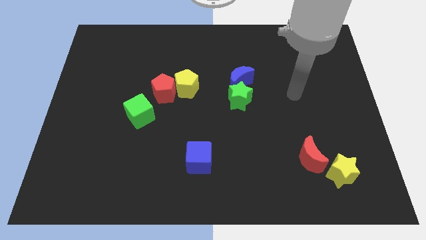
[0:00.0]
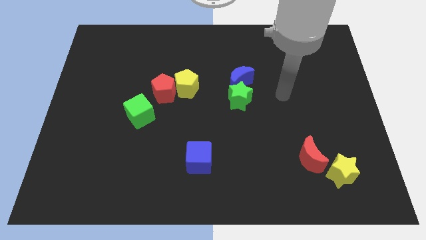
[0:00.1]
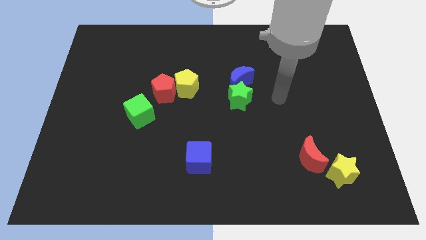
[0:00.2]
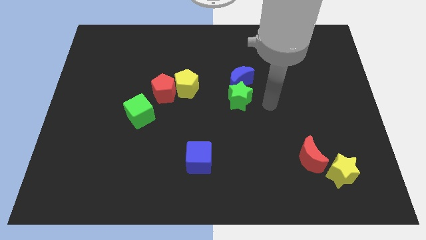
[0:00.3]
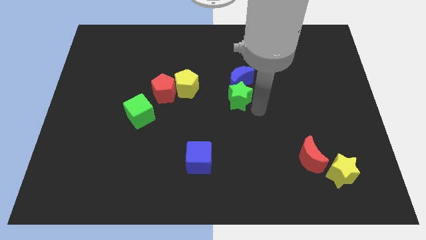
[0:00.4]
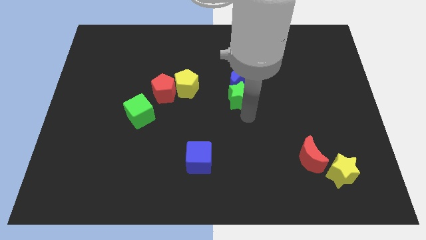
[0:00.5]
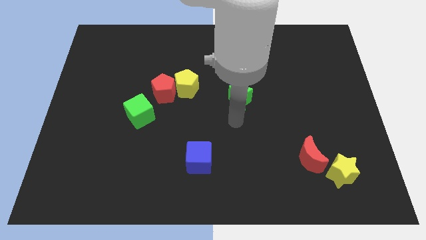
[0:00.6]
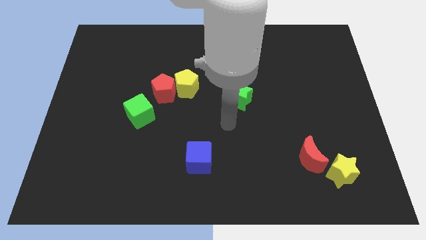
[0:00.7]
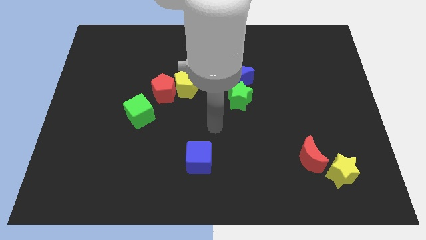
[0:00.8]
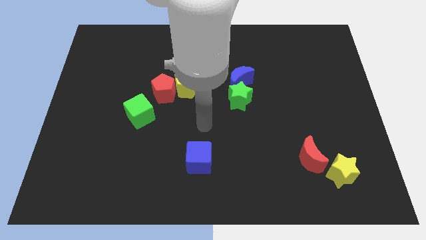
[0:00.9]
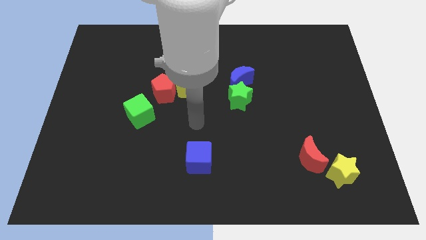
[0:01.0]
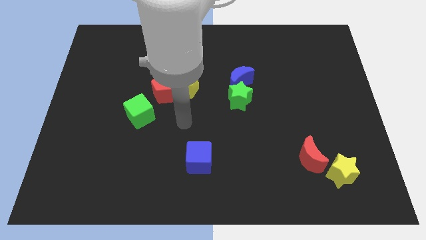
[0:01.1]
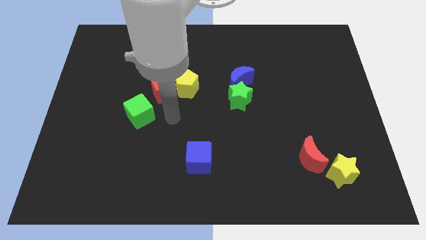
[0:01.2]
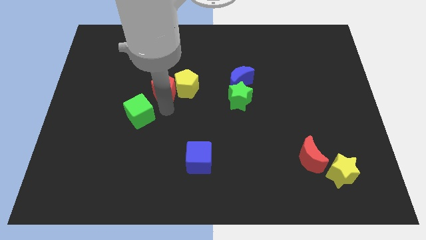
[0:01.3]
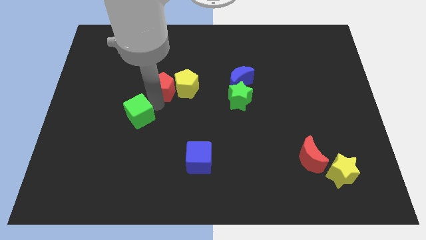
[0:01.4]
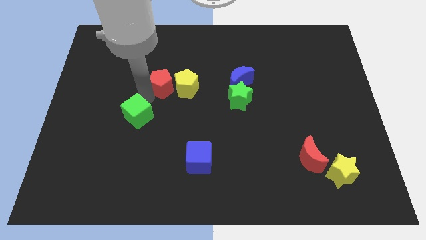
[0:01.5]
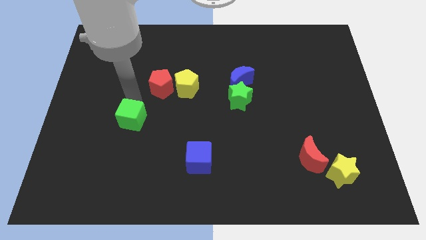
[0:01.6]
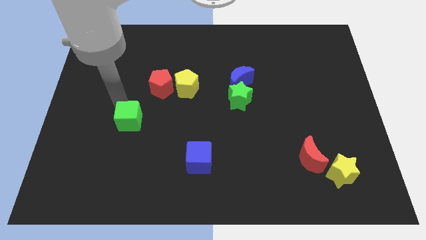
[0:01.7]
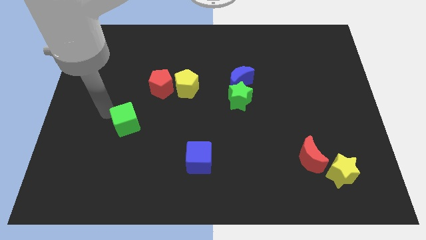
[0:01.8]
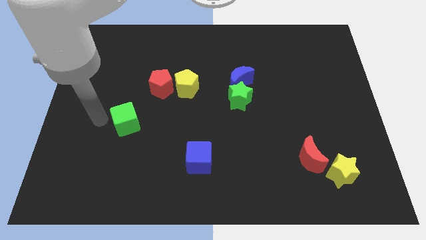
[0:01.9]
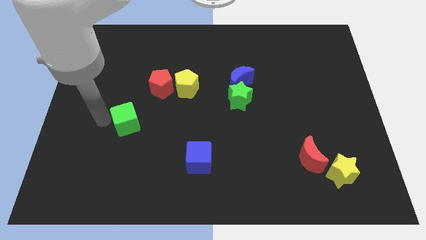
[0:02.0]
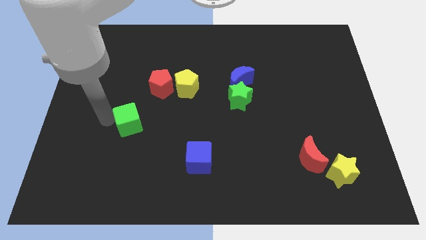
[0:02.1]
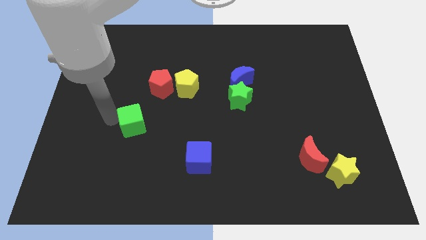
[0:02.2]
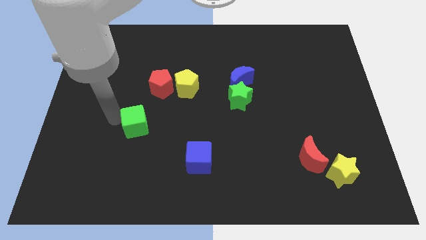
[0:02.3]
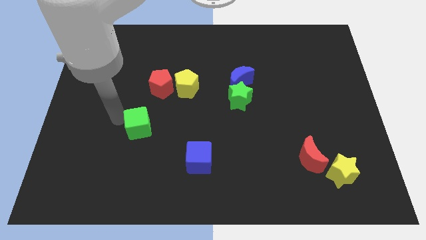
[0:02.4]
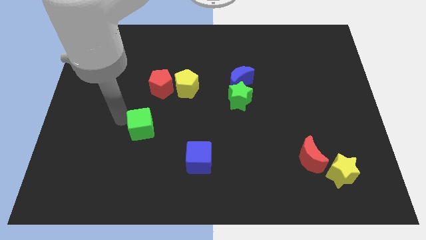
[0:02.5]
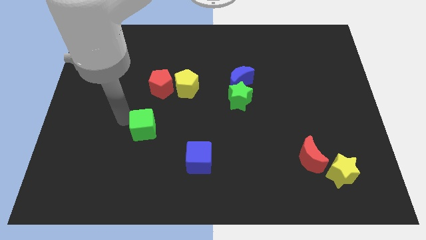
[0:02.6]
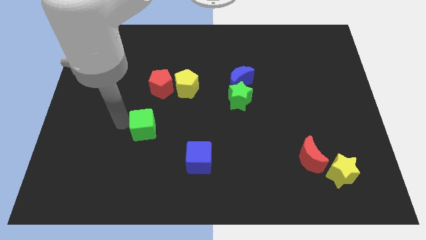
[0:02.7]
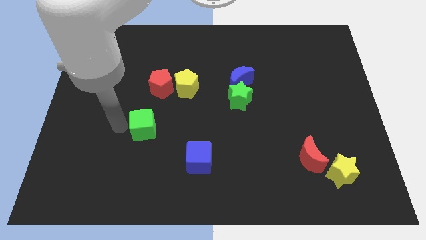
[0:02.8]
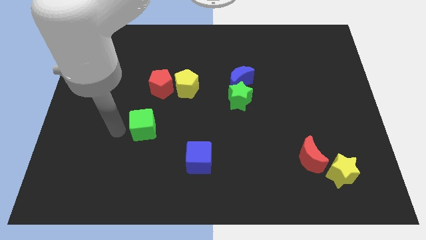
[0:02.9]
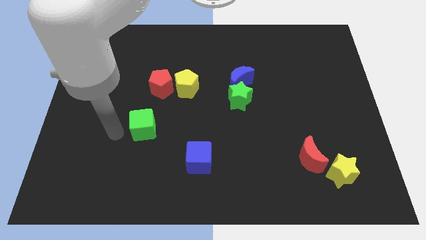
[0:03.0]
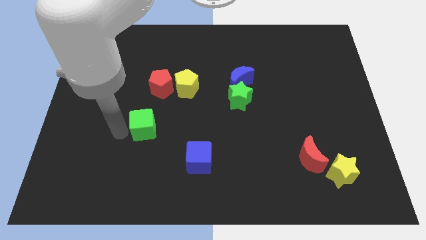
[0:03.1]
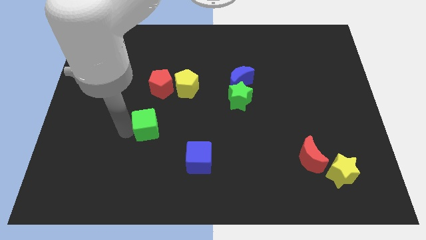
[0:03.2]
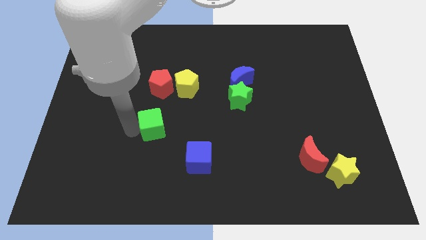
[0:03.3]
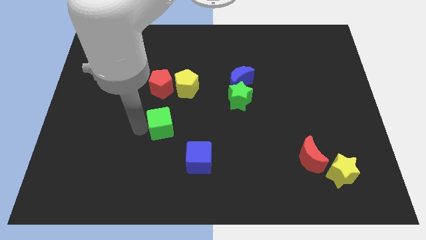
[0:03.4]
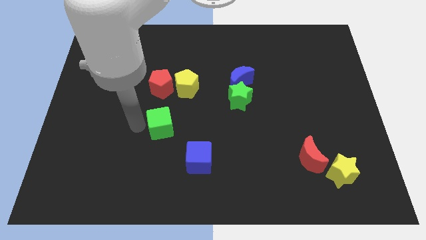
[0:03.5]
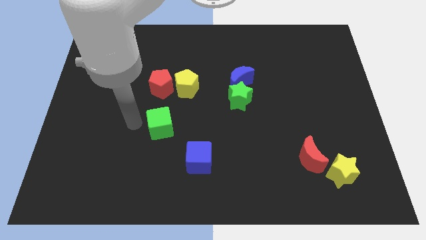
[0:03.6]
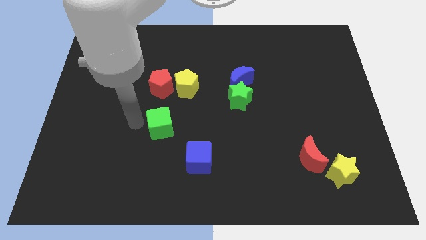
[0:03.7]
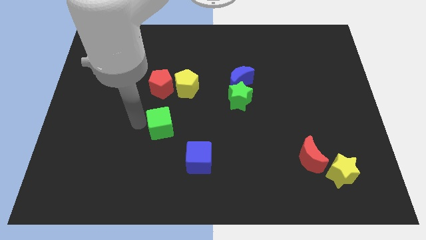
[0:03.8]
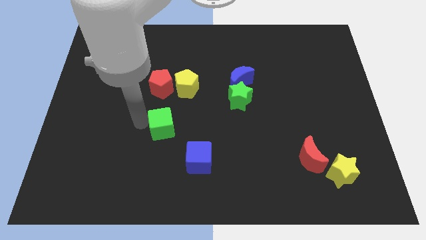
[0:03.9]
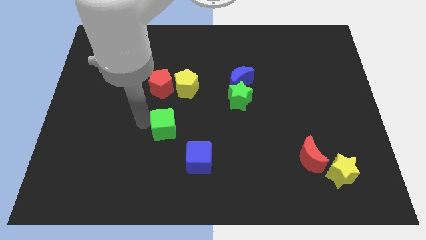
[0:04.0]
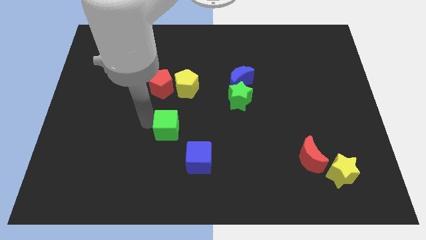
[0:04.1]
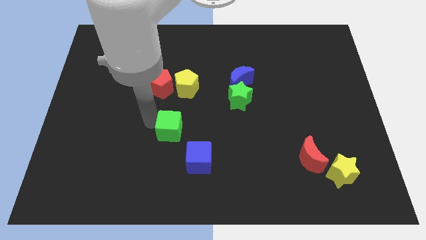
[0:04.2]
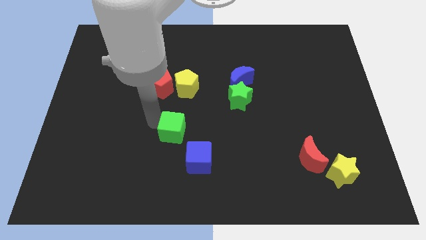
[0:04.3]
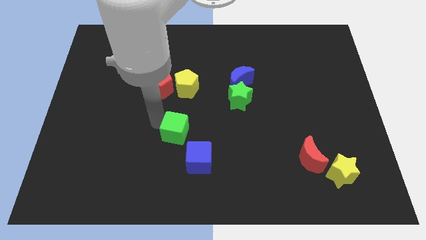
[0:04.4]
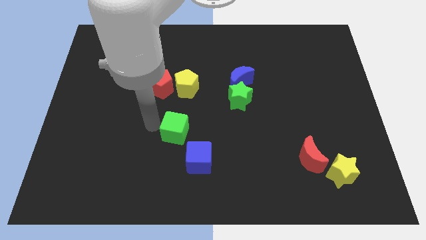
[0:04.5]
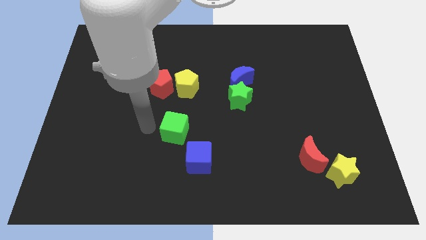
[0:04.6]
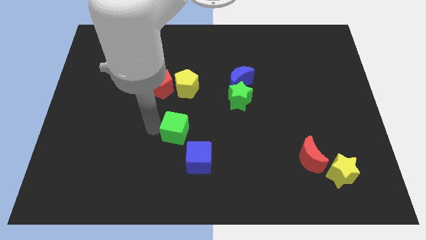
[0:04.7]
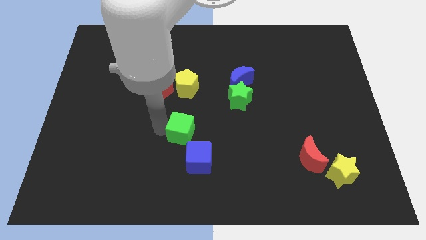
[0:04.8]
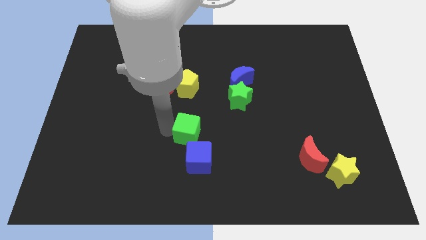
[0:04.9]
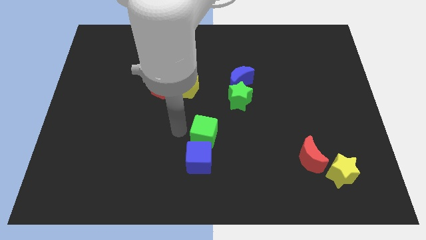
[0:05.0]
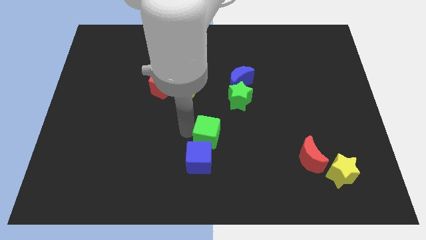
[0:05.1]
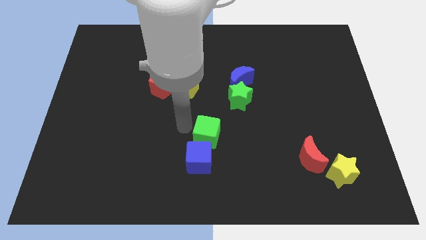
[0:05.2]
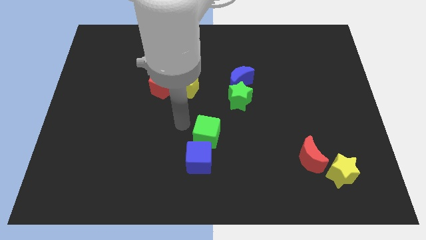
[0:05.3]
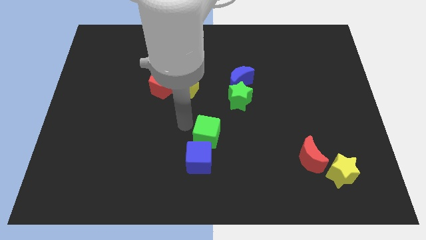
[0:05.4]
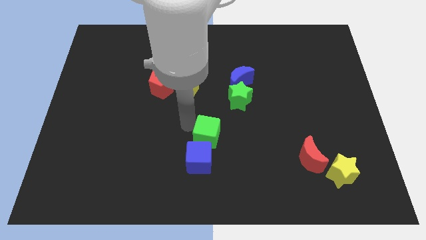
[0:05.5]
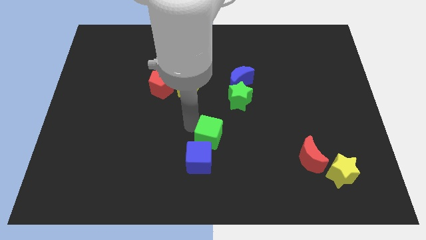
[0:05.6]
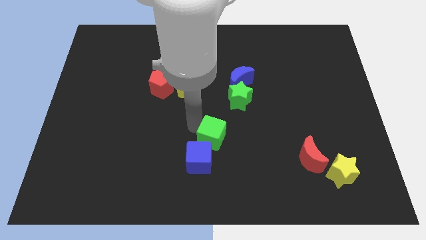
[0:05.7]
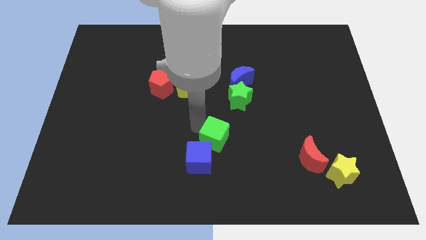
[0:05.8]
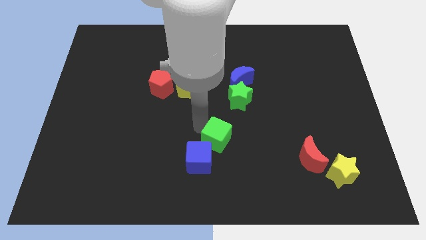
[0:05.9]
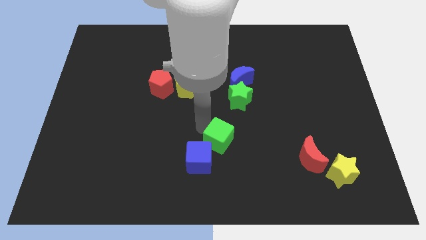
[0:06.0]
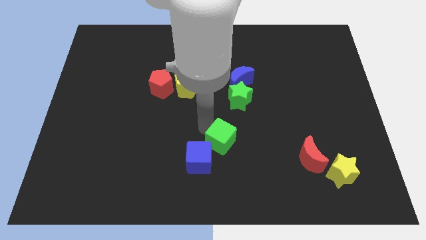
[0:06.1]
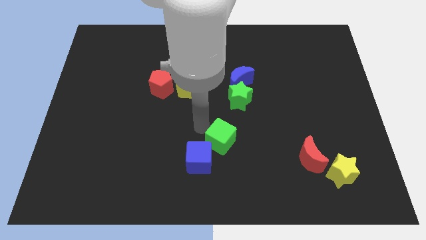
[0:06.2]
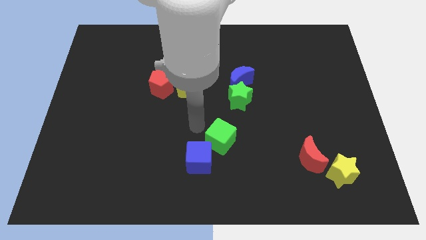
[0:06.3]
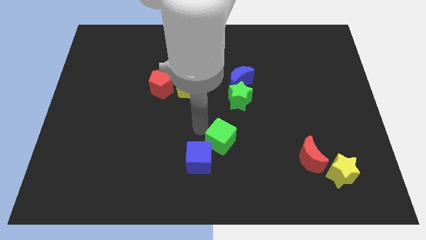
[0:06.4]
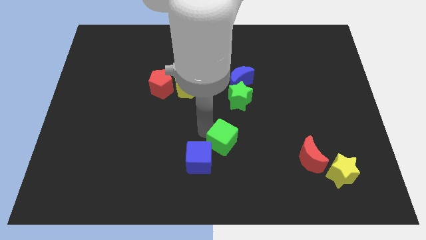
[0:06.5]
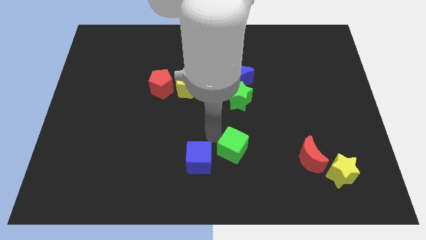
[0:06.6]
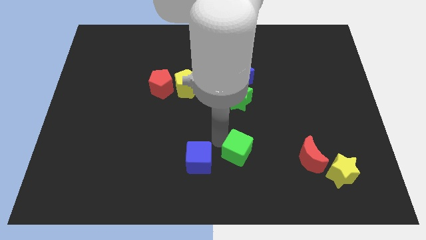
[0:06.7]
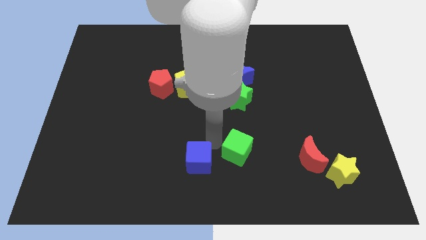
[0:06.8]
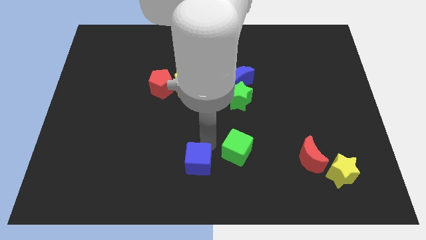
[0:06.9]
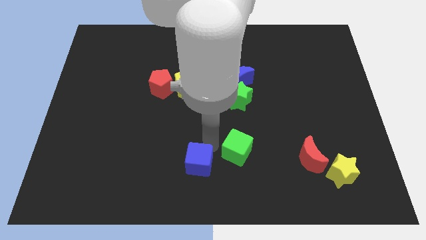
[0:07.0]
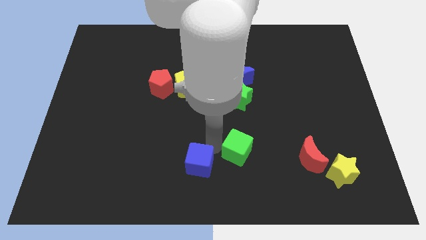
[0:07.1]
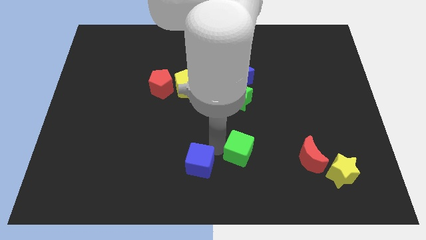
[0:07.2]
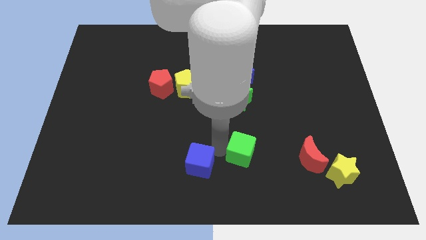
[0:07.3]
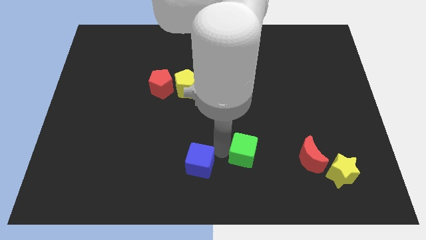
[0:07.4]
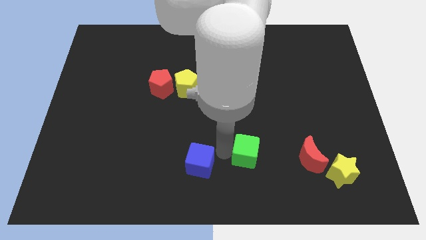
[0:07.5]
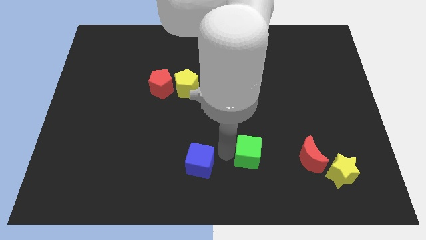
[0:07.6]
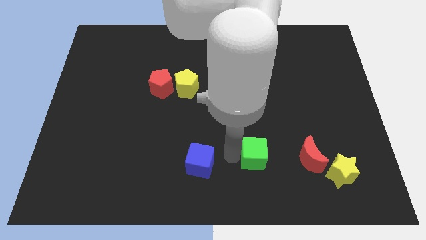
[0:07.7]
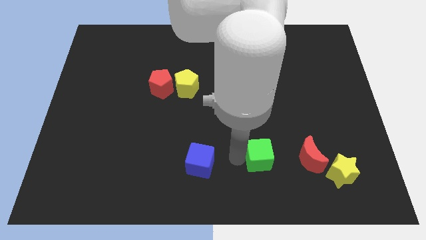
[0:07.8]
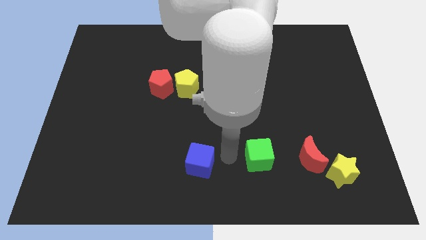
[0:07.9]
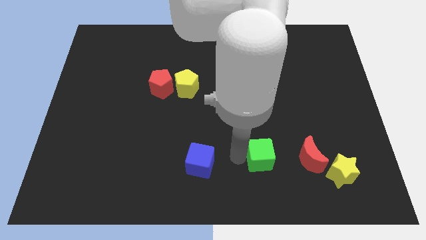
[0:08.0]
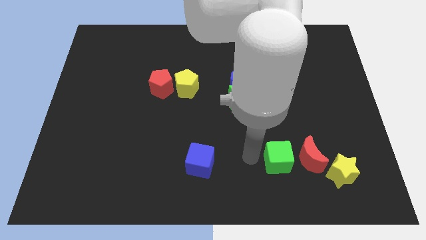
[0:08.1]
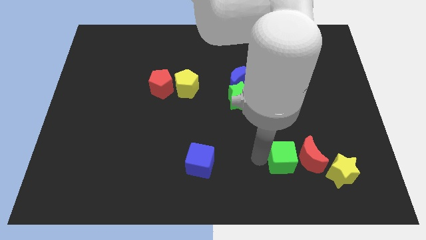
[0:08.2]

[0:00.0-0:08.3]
slide the green cube close to the red moon
